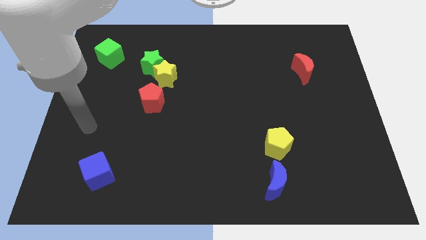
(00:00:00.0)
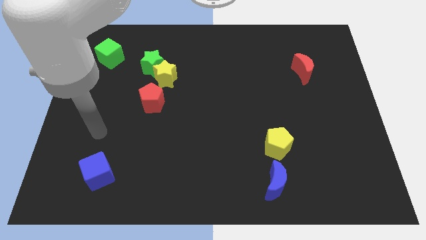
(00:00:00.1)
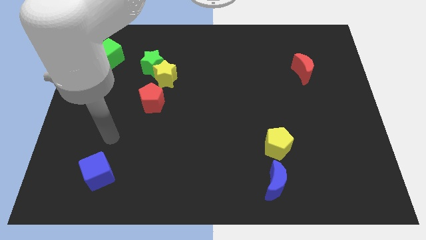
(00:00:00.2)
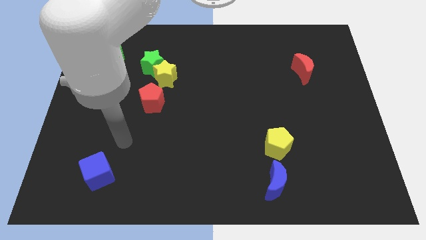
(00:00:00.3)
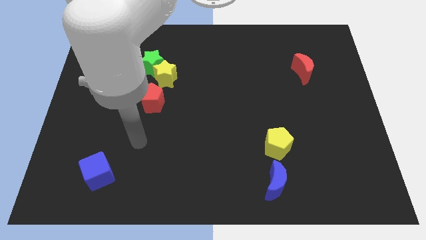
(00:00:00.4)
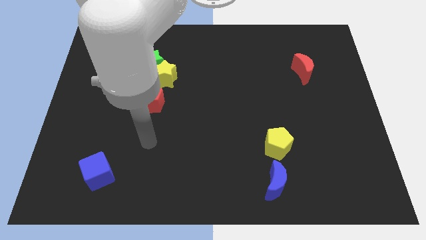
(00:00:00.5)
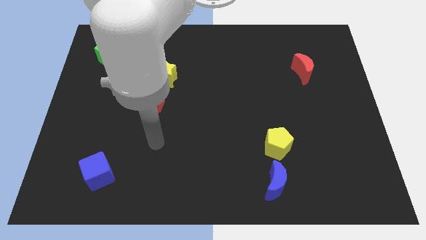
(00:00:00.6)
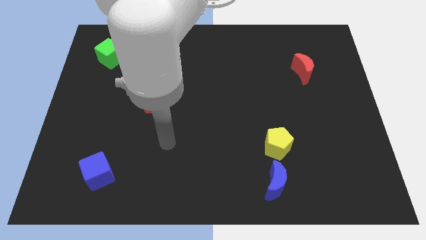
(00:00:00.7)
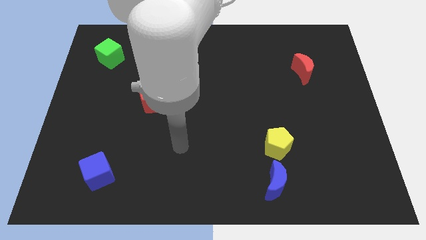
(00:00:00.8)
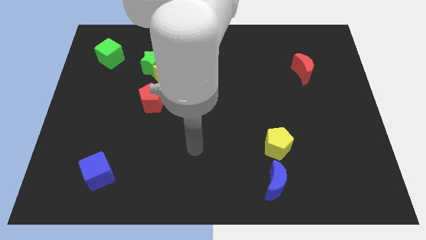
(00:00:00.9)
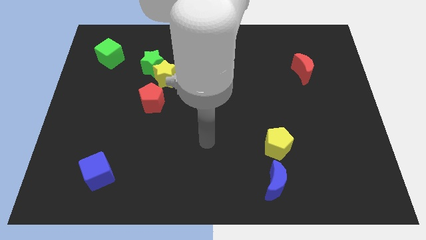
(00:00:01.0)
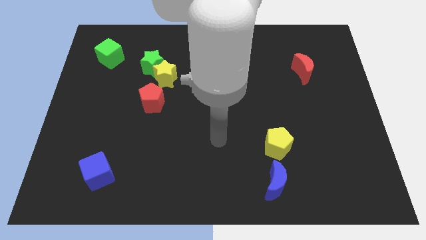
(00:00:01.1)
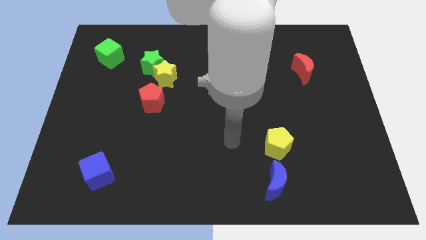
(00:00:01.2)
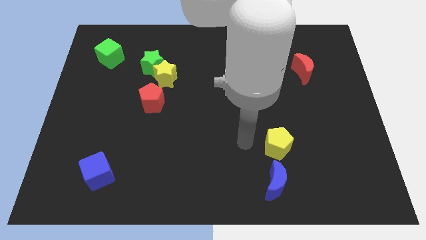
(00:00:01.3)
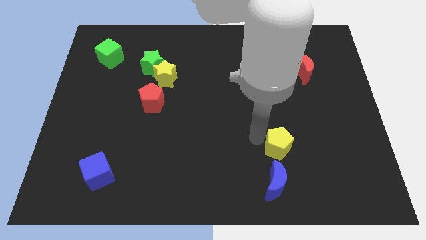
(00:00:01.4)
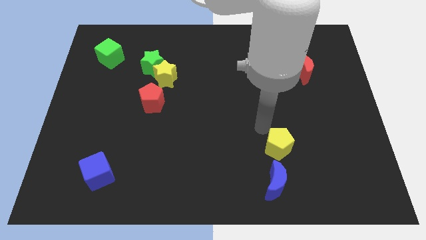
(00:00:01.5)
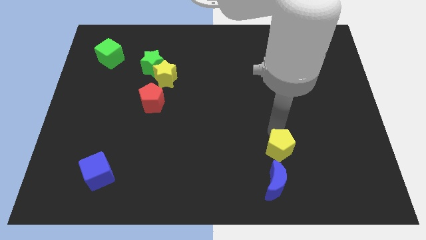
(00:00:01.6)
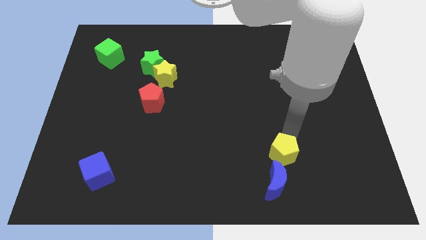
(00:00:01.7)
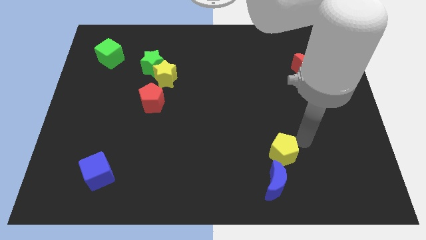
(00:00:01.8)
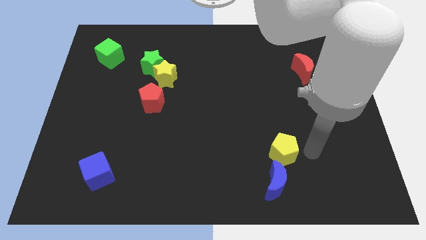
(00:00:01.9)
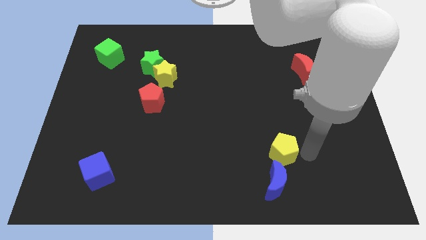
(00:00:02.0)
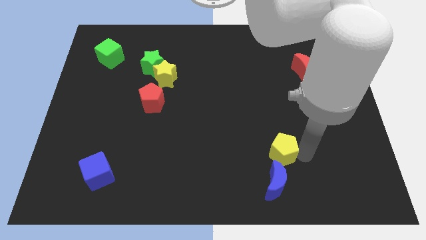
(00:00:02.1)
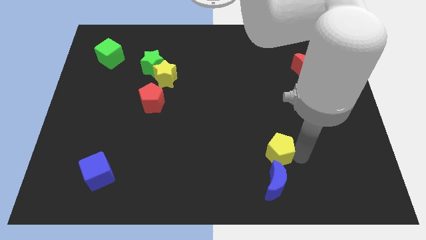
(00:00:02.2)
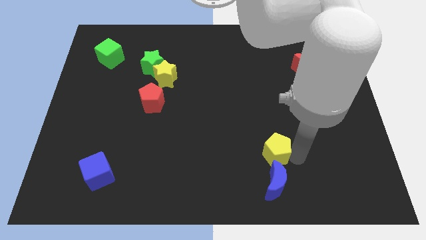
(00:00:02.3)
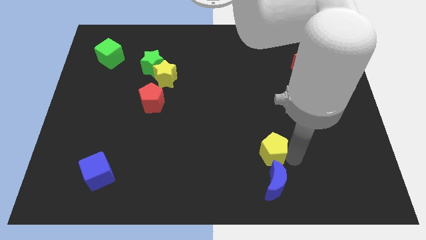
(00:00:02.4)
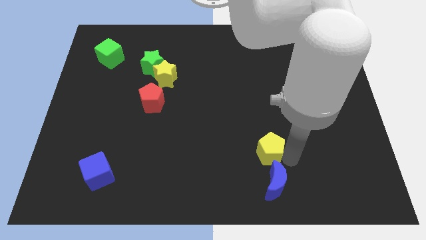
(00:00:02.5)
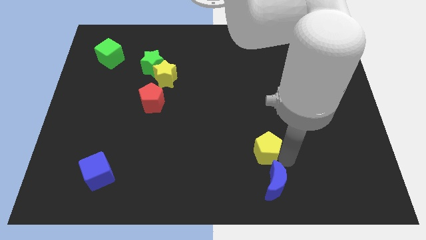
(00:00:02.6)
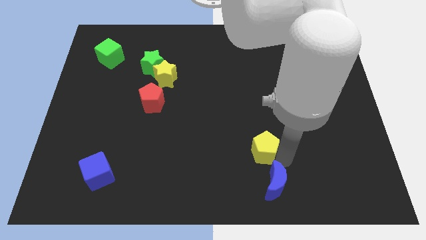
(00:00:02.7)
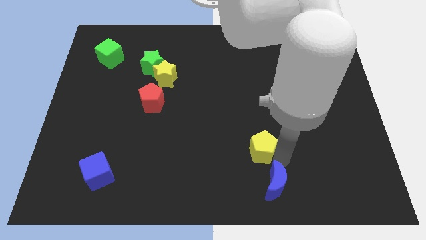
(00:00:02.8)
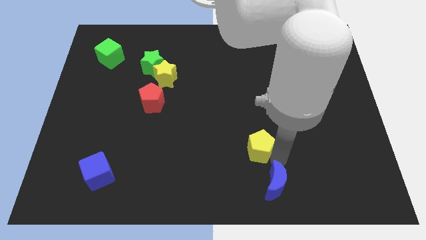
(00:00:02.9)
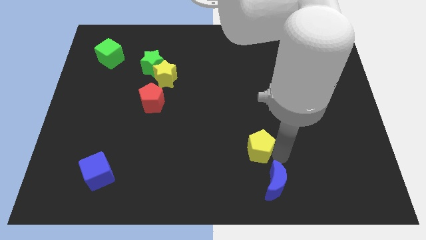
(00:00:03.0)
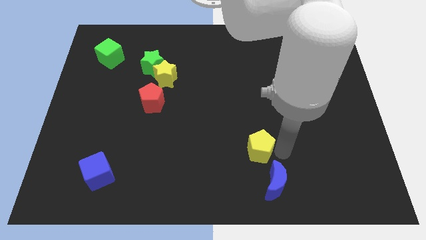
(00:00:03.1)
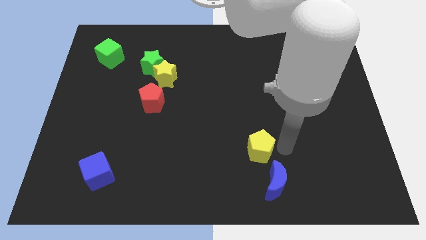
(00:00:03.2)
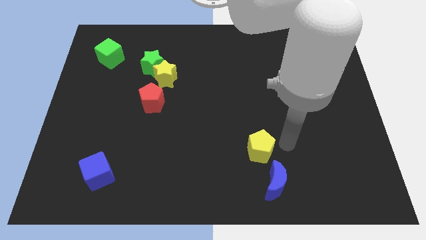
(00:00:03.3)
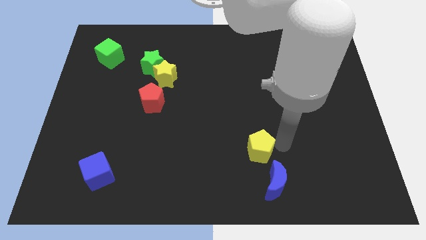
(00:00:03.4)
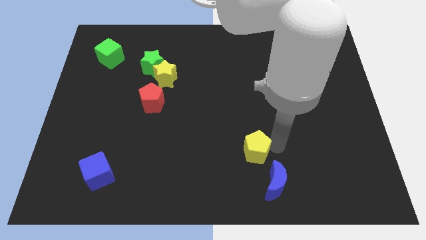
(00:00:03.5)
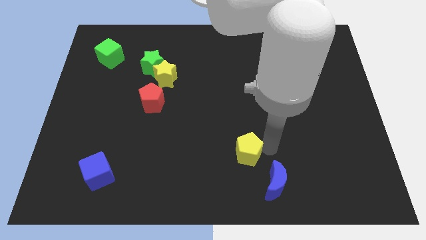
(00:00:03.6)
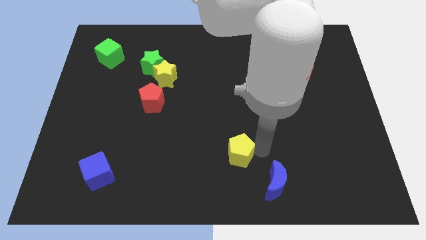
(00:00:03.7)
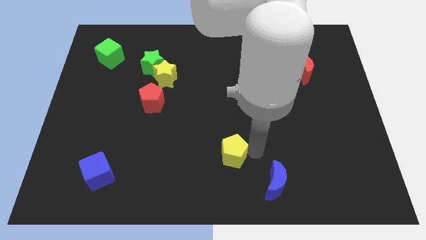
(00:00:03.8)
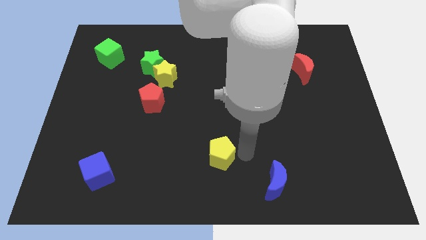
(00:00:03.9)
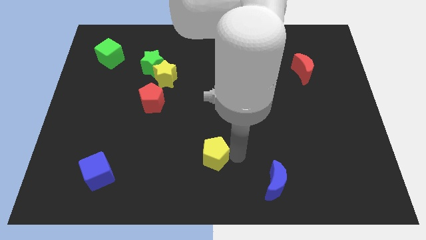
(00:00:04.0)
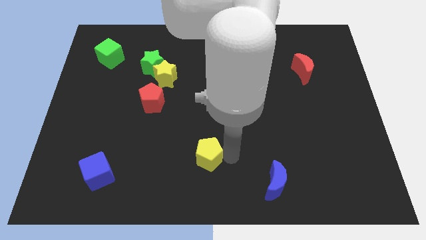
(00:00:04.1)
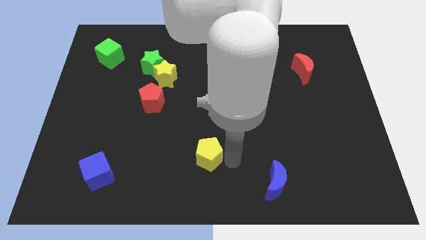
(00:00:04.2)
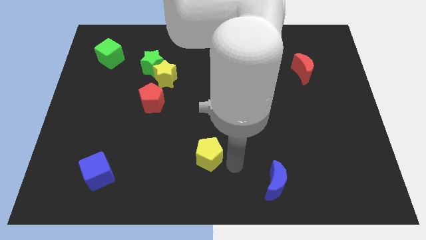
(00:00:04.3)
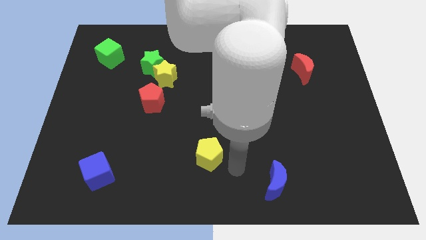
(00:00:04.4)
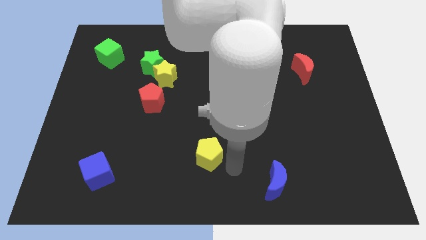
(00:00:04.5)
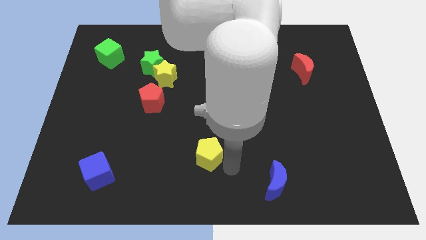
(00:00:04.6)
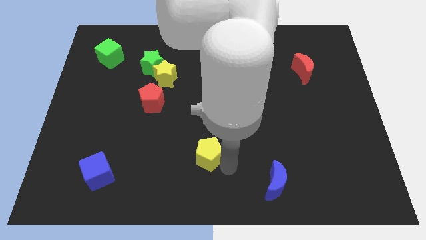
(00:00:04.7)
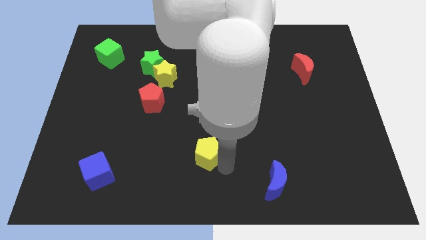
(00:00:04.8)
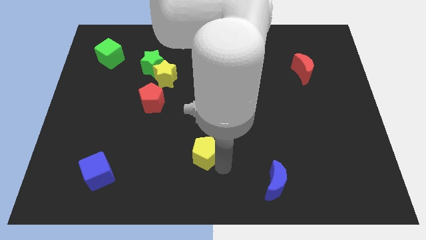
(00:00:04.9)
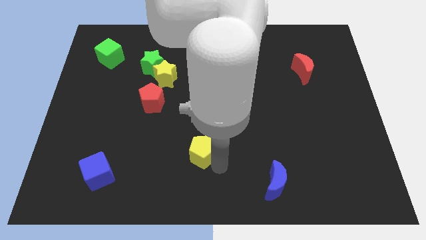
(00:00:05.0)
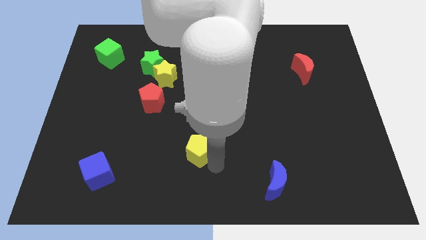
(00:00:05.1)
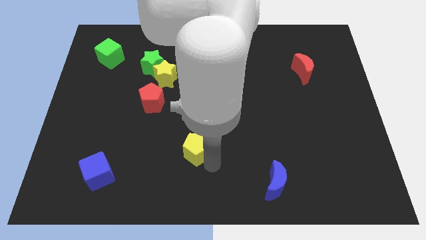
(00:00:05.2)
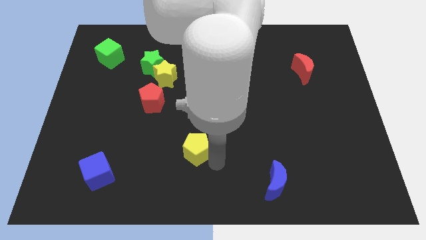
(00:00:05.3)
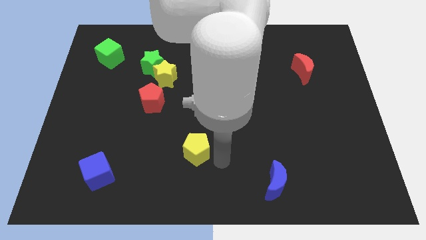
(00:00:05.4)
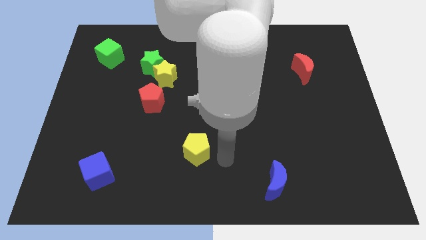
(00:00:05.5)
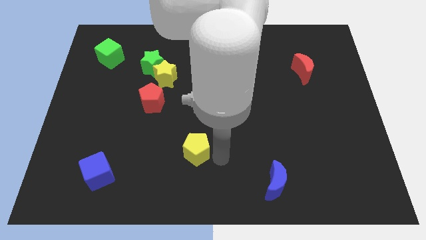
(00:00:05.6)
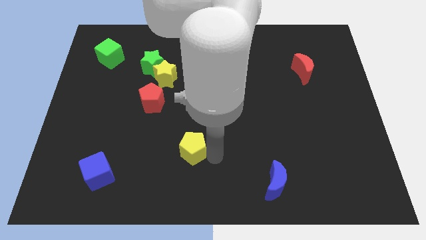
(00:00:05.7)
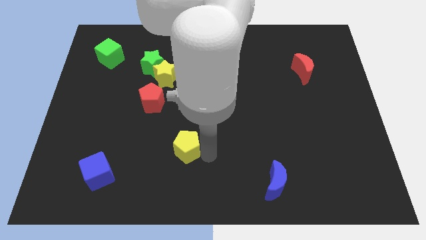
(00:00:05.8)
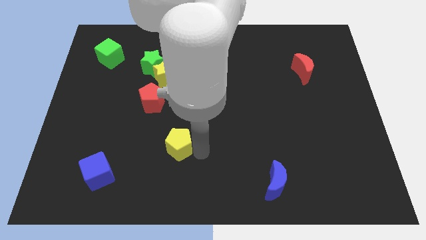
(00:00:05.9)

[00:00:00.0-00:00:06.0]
move the yellow pentagon left

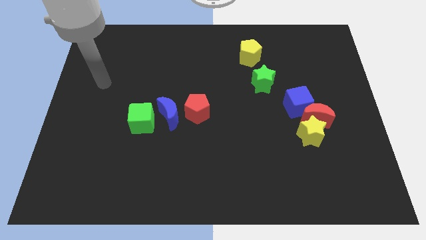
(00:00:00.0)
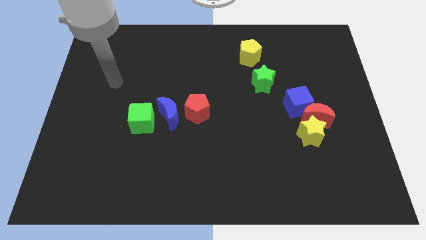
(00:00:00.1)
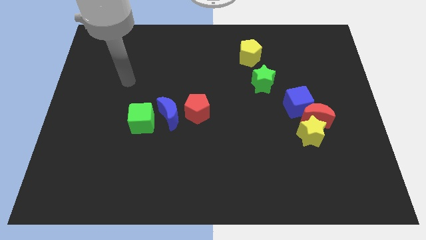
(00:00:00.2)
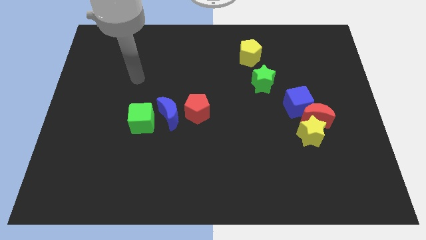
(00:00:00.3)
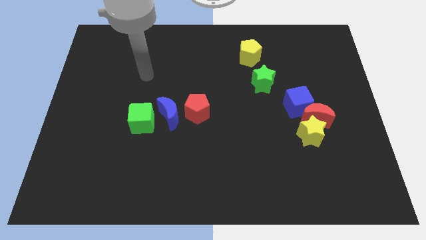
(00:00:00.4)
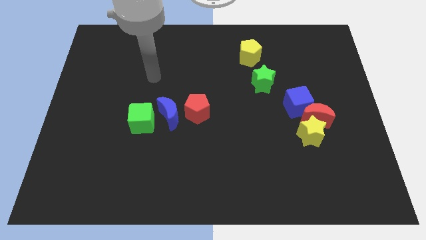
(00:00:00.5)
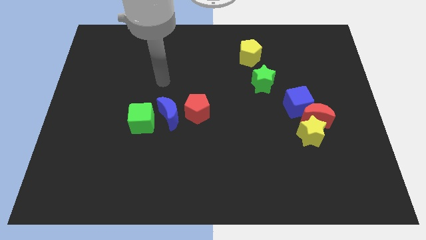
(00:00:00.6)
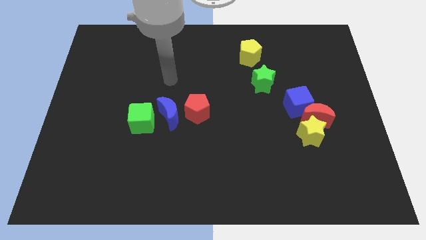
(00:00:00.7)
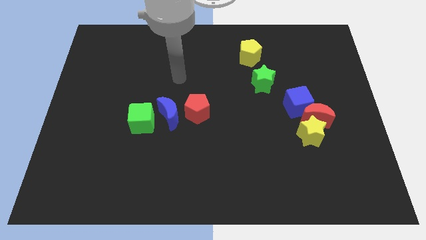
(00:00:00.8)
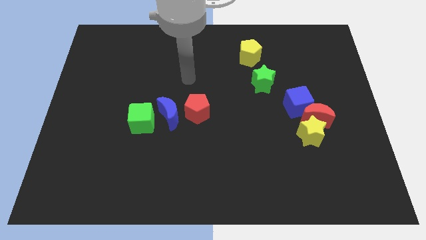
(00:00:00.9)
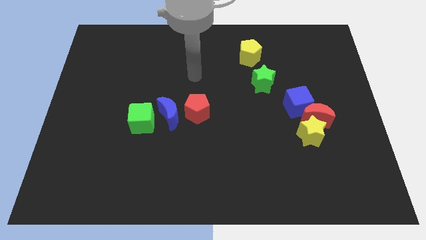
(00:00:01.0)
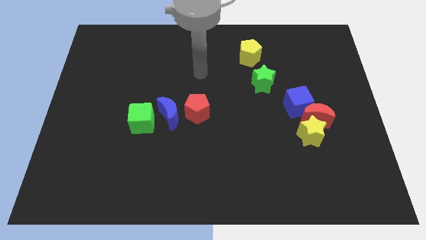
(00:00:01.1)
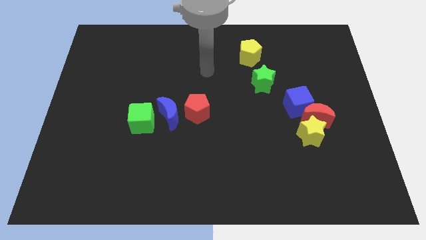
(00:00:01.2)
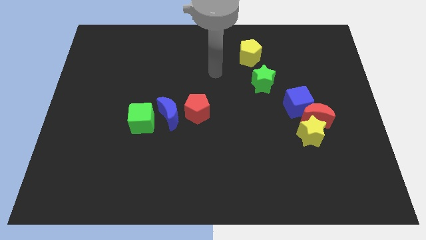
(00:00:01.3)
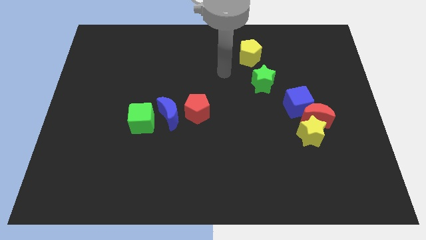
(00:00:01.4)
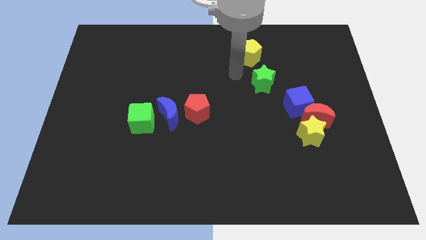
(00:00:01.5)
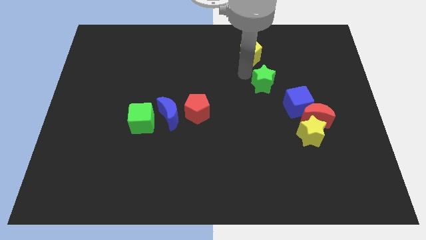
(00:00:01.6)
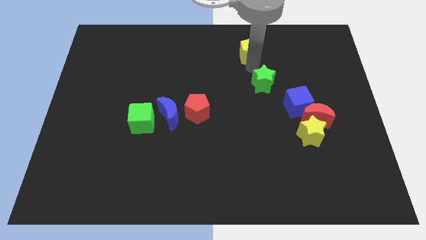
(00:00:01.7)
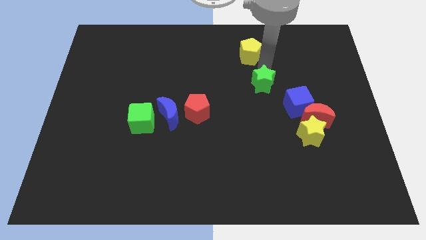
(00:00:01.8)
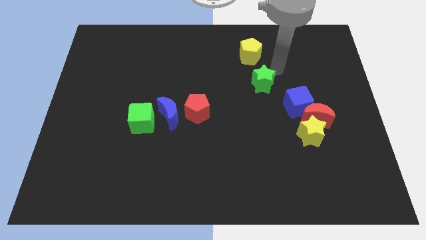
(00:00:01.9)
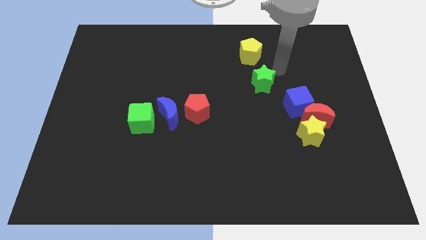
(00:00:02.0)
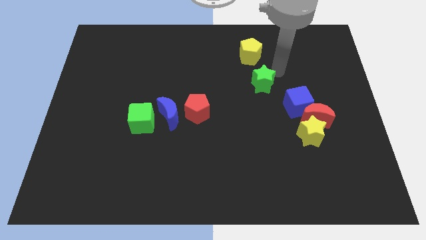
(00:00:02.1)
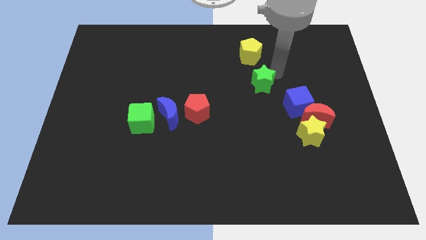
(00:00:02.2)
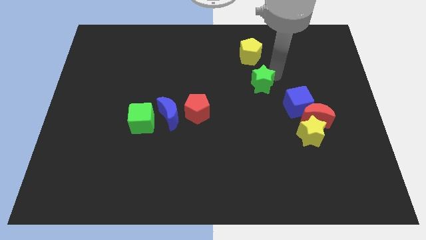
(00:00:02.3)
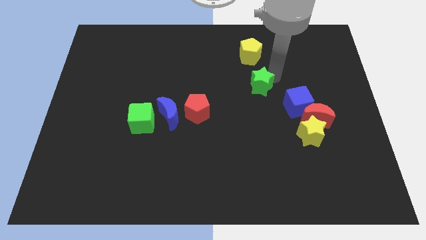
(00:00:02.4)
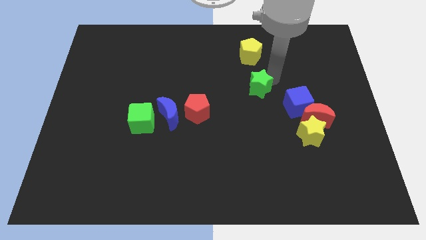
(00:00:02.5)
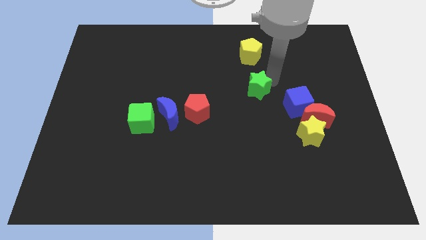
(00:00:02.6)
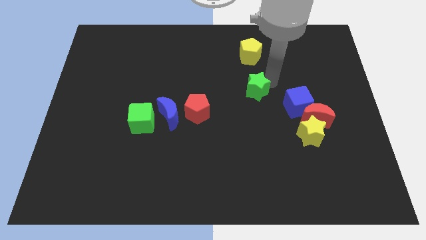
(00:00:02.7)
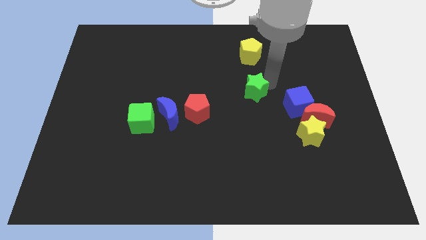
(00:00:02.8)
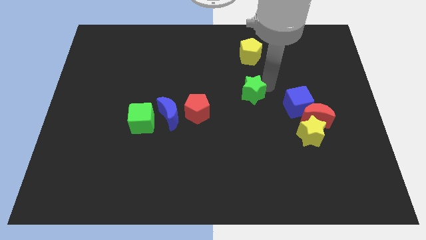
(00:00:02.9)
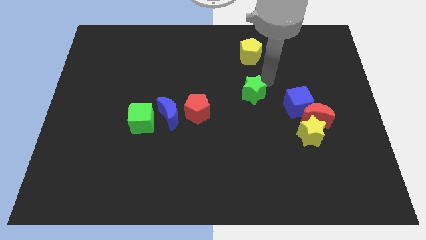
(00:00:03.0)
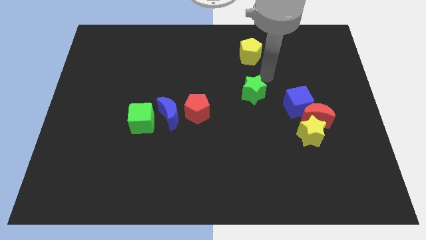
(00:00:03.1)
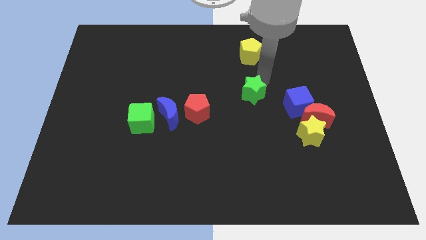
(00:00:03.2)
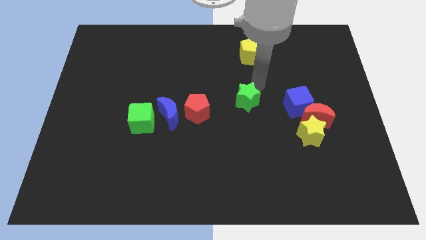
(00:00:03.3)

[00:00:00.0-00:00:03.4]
slightly move the green star down and then to the left
